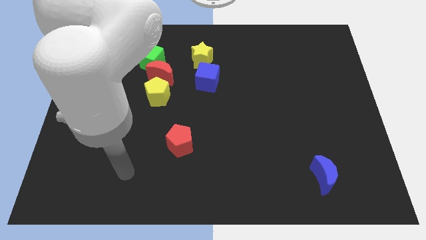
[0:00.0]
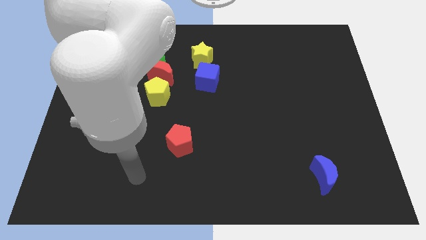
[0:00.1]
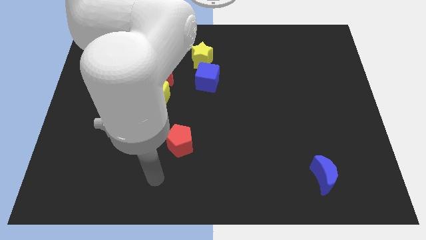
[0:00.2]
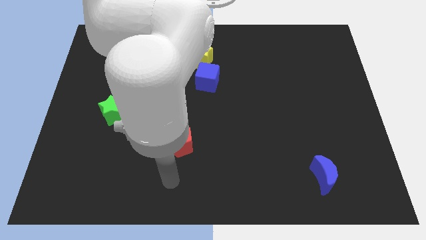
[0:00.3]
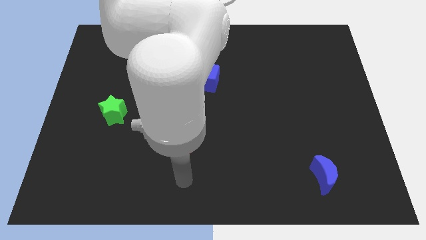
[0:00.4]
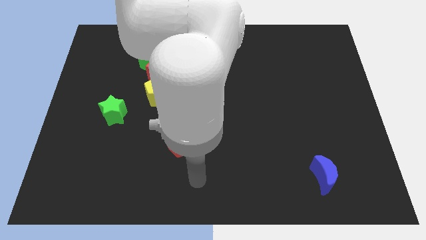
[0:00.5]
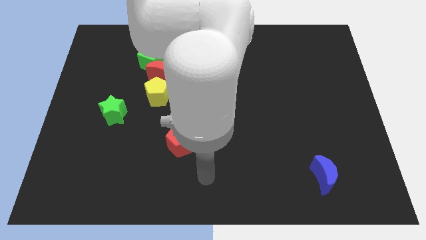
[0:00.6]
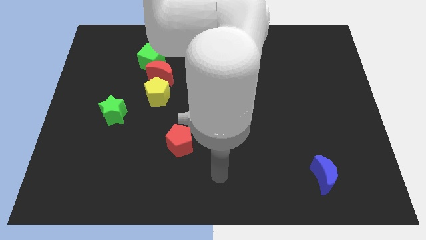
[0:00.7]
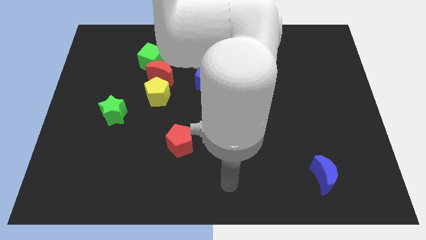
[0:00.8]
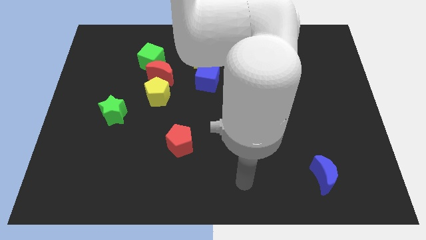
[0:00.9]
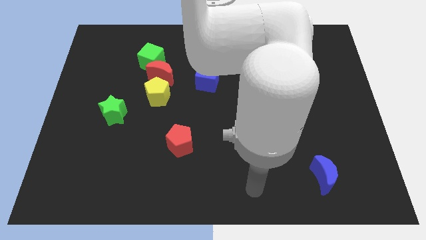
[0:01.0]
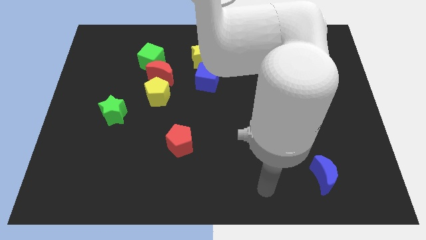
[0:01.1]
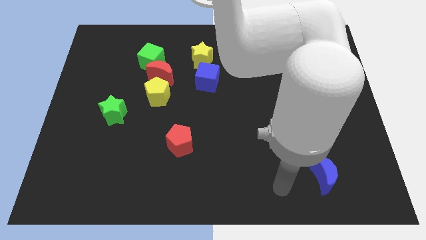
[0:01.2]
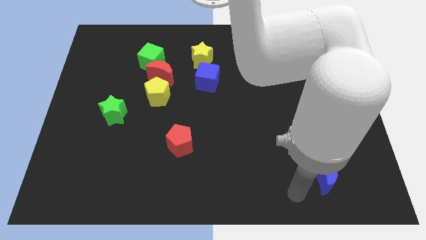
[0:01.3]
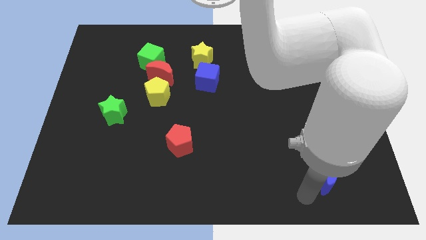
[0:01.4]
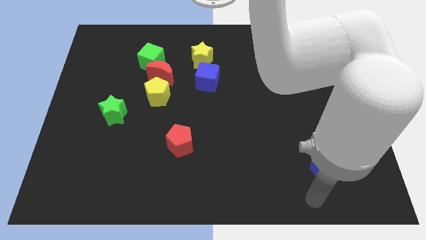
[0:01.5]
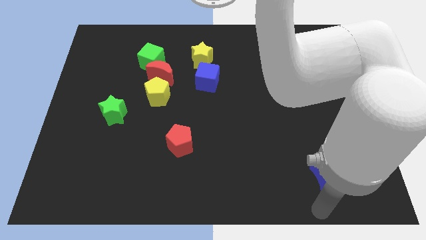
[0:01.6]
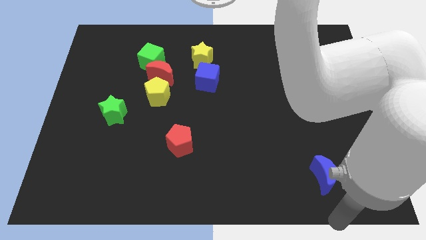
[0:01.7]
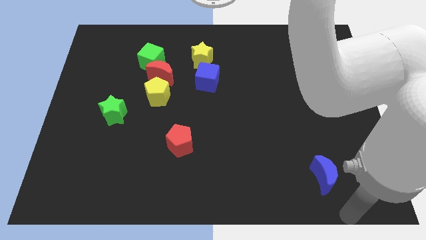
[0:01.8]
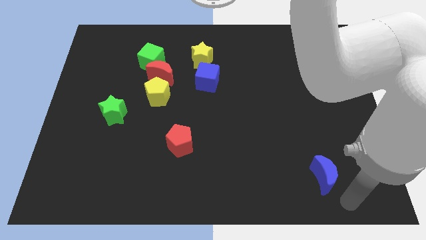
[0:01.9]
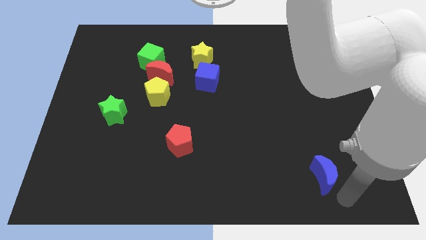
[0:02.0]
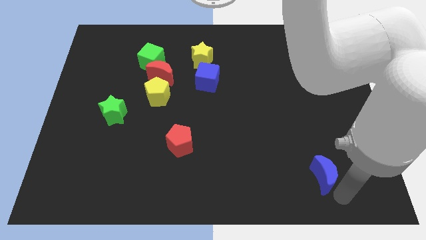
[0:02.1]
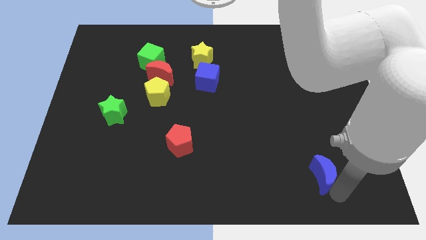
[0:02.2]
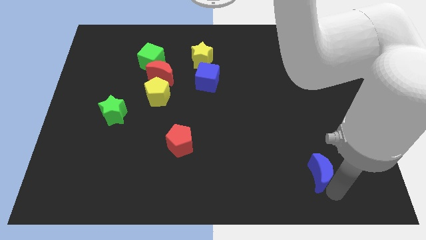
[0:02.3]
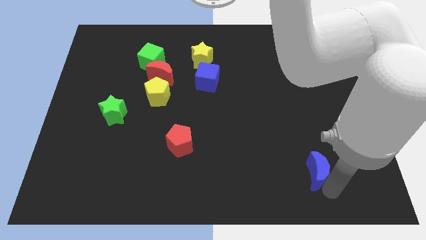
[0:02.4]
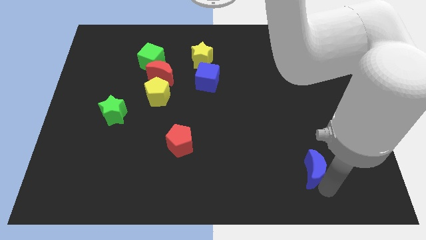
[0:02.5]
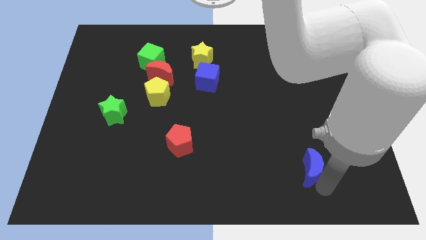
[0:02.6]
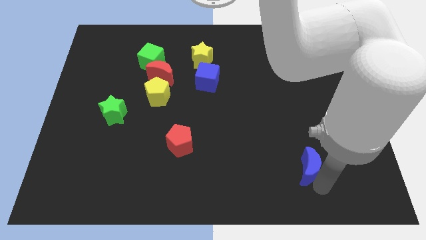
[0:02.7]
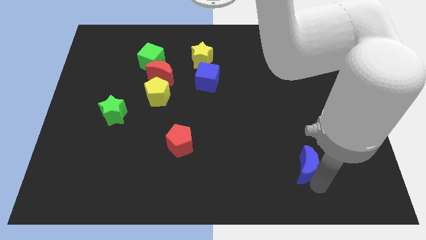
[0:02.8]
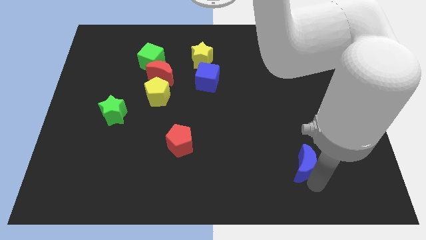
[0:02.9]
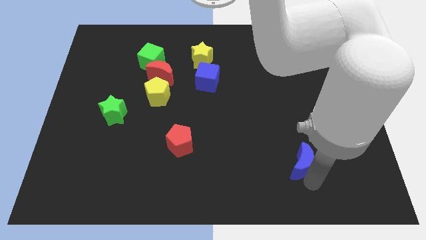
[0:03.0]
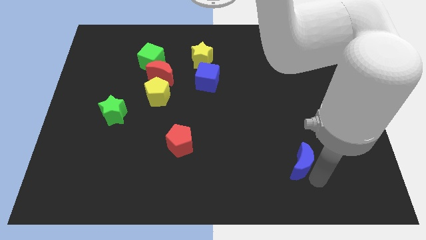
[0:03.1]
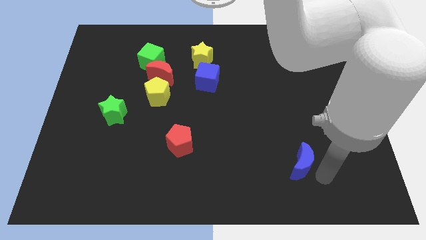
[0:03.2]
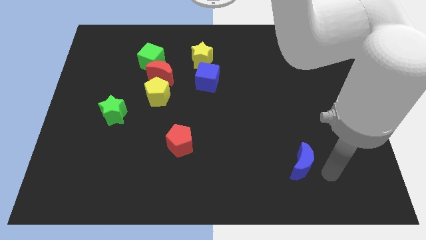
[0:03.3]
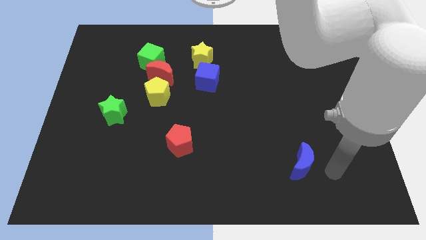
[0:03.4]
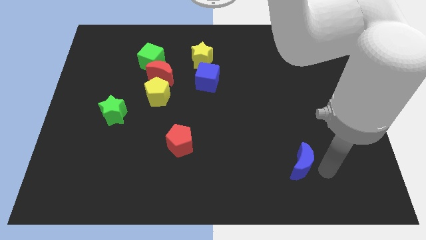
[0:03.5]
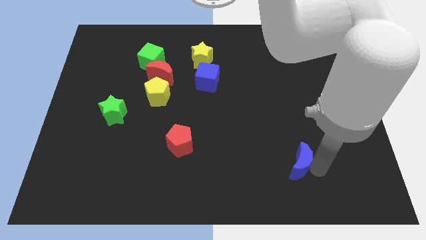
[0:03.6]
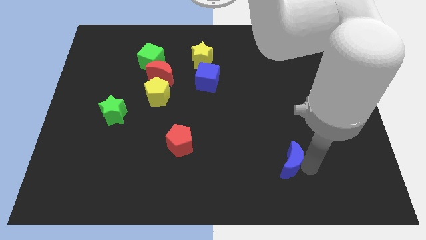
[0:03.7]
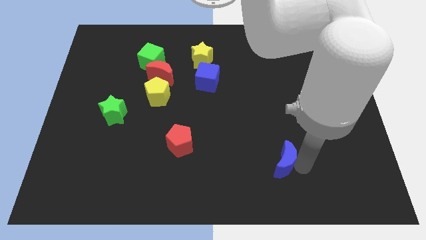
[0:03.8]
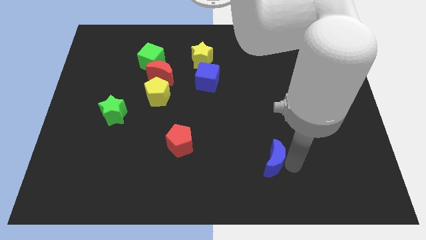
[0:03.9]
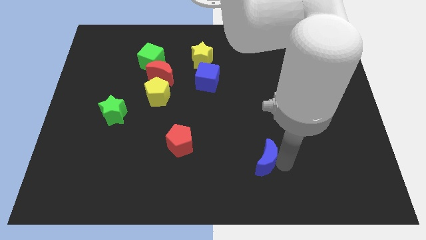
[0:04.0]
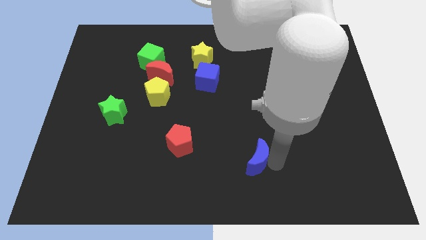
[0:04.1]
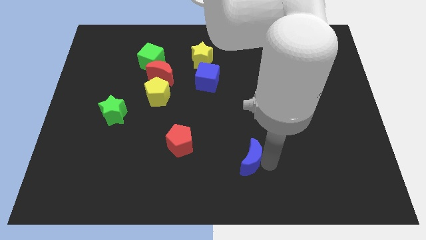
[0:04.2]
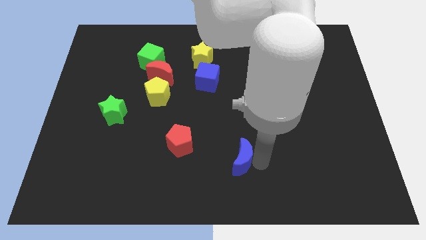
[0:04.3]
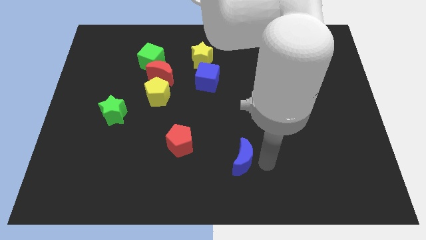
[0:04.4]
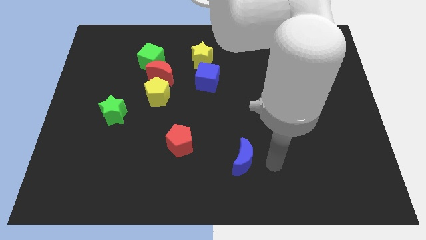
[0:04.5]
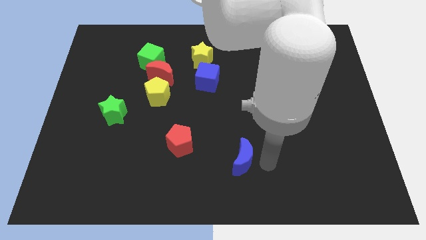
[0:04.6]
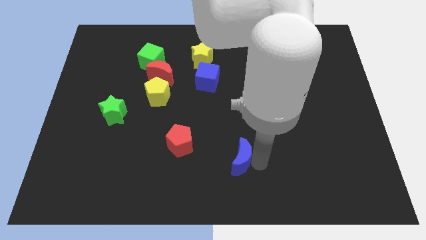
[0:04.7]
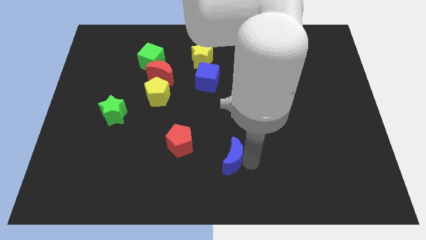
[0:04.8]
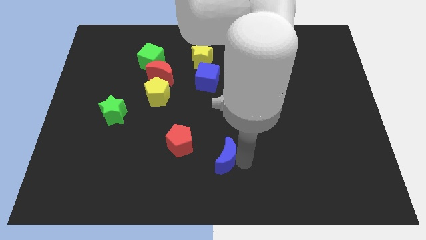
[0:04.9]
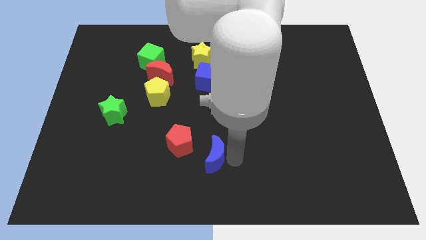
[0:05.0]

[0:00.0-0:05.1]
slide the blue moon left

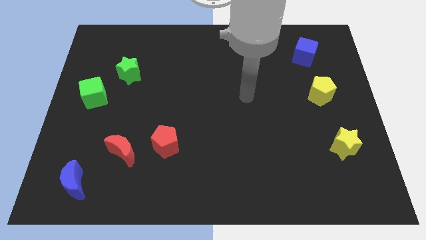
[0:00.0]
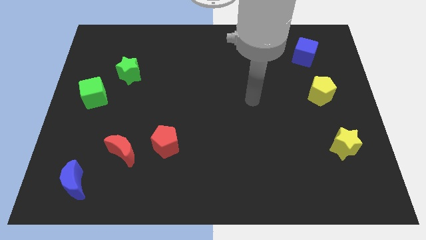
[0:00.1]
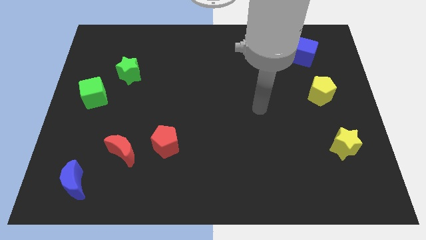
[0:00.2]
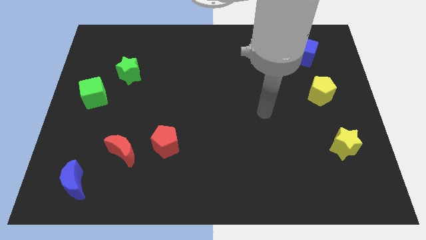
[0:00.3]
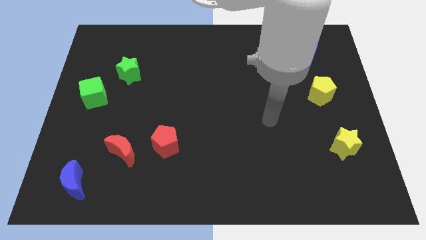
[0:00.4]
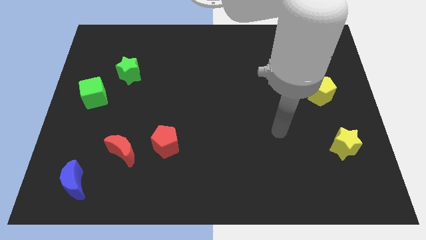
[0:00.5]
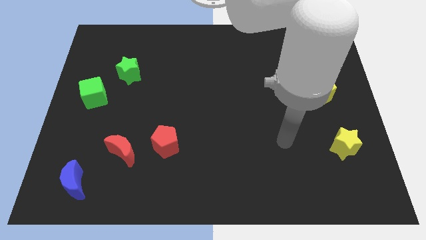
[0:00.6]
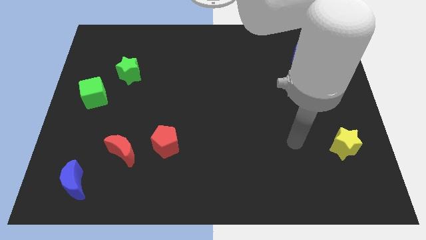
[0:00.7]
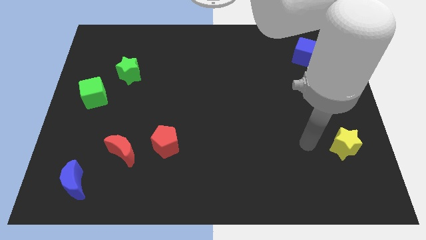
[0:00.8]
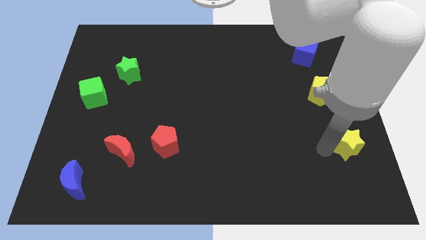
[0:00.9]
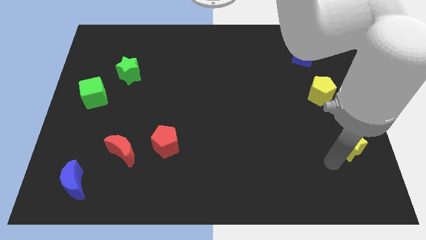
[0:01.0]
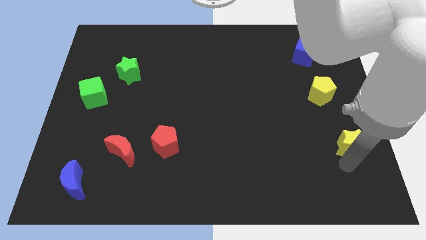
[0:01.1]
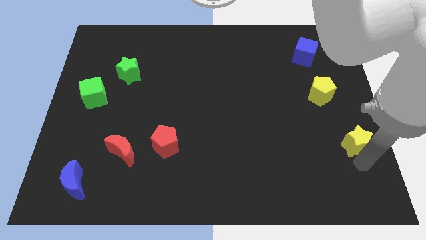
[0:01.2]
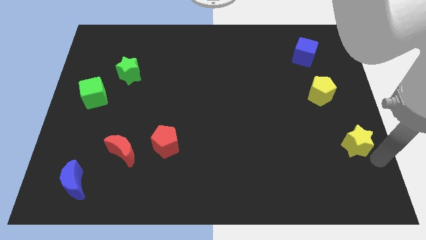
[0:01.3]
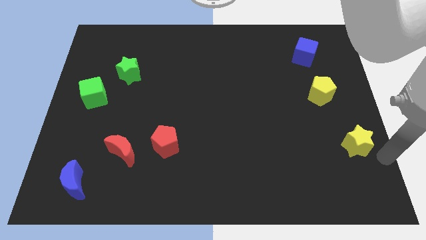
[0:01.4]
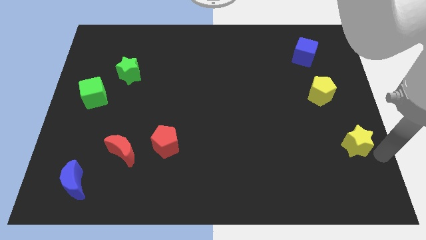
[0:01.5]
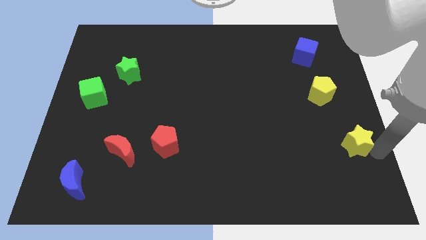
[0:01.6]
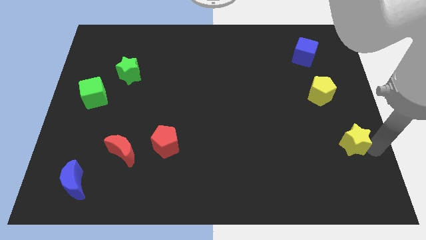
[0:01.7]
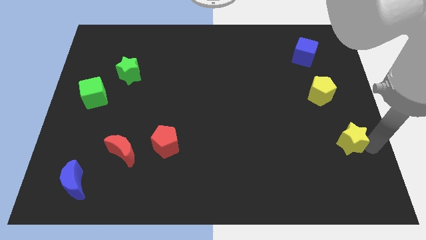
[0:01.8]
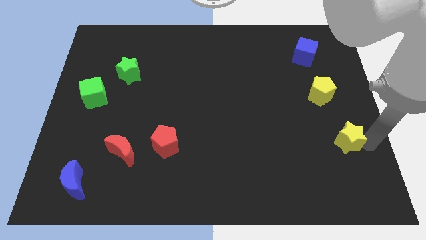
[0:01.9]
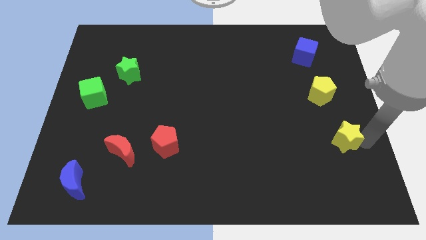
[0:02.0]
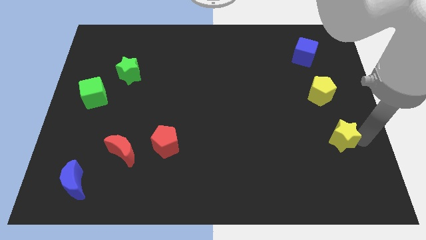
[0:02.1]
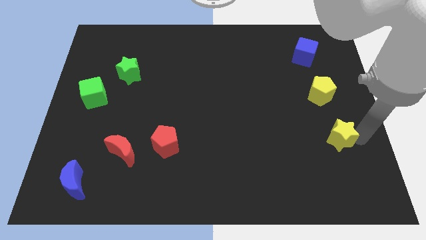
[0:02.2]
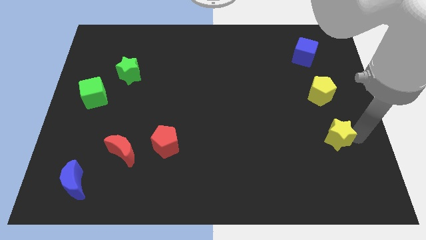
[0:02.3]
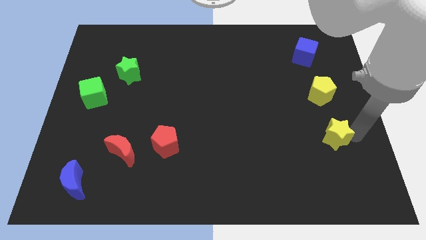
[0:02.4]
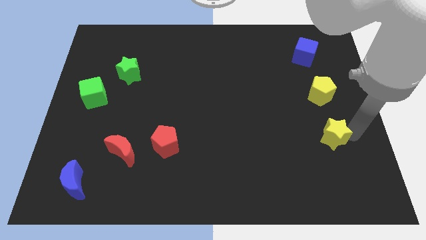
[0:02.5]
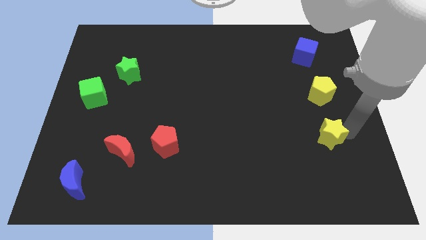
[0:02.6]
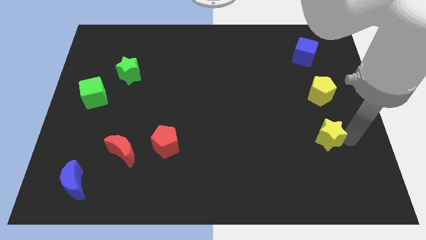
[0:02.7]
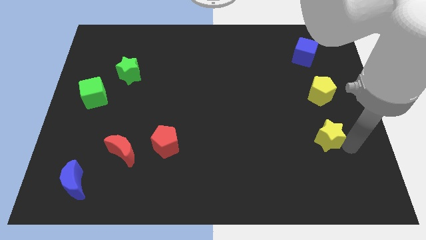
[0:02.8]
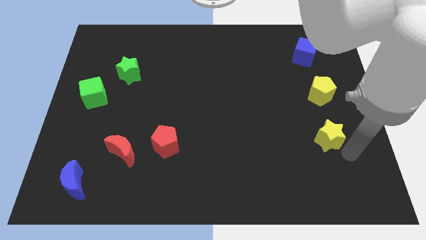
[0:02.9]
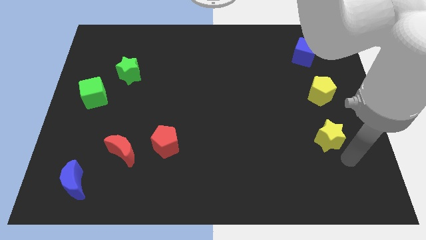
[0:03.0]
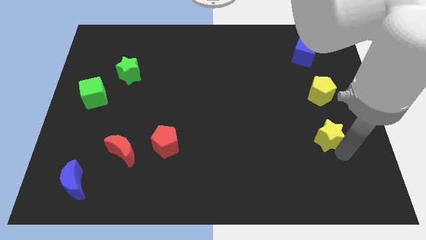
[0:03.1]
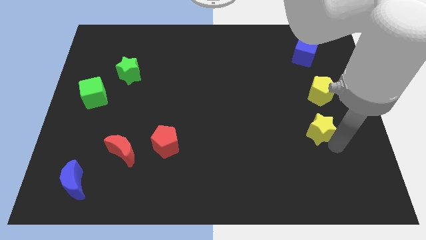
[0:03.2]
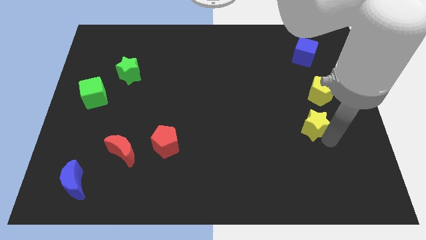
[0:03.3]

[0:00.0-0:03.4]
slightly move the yellow star upwards and to the left diagonally
